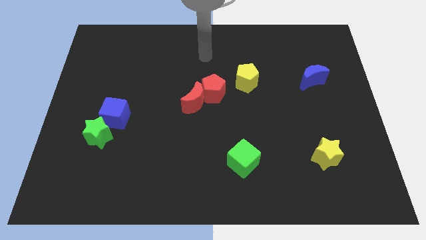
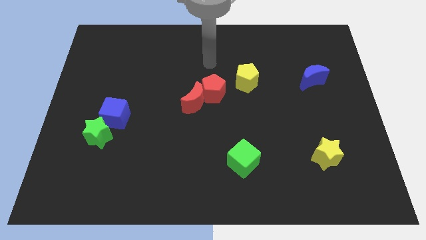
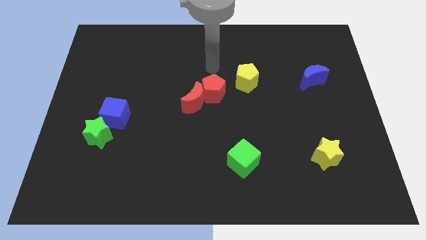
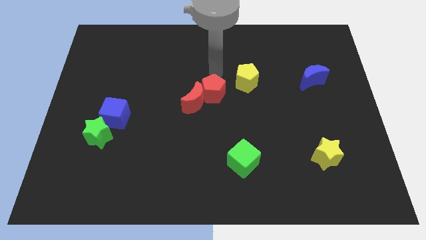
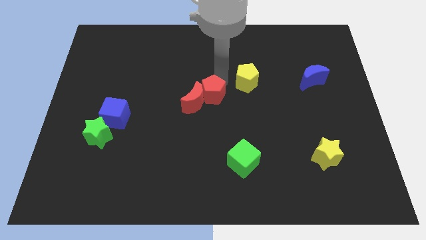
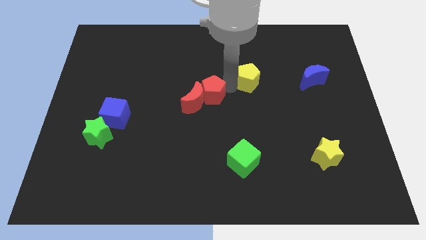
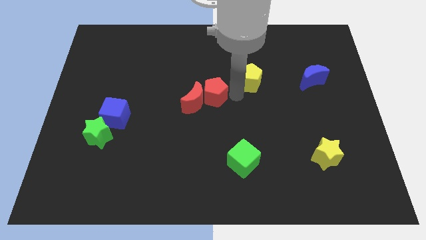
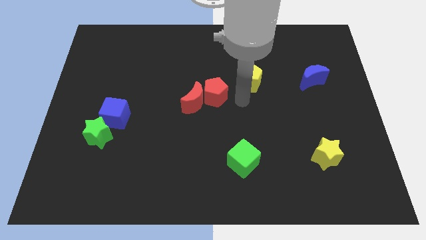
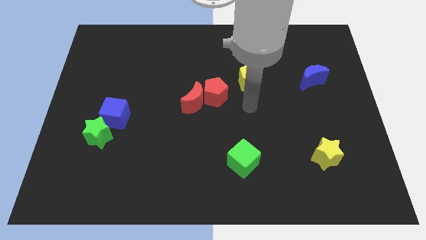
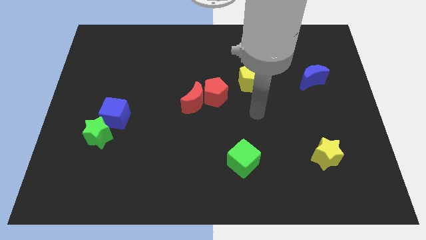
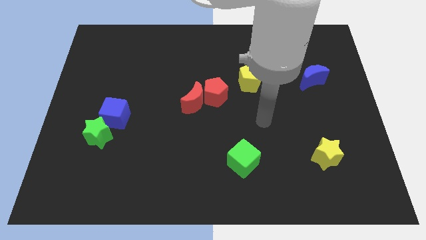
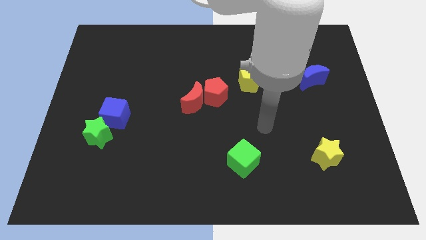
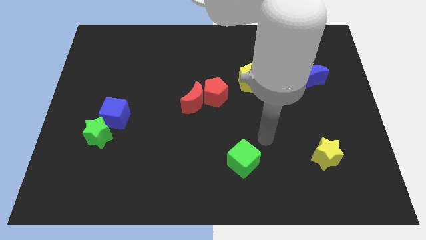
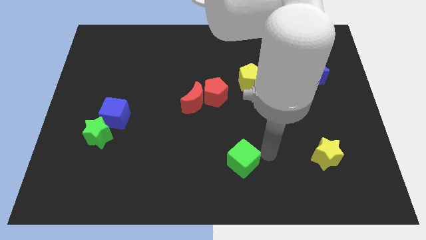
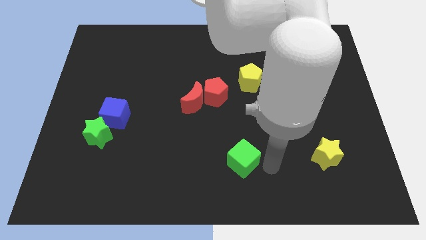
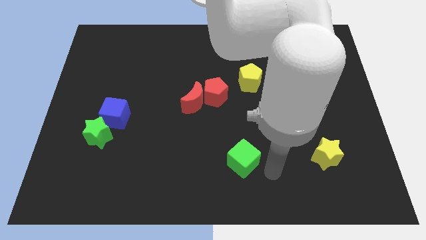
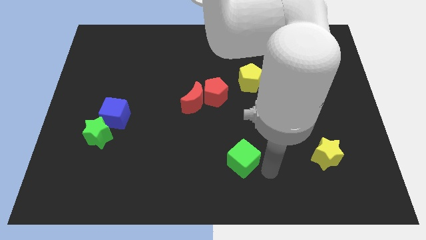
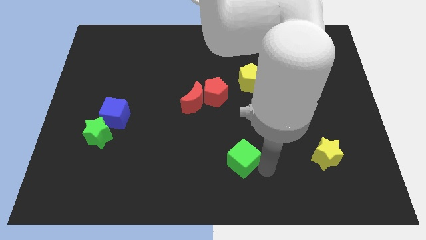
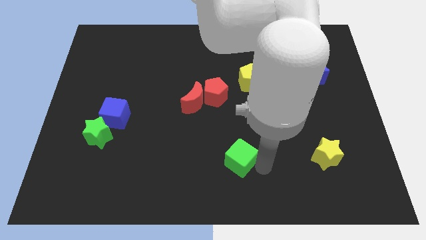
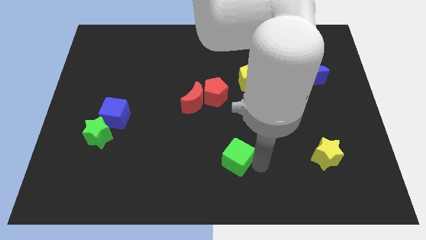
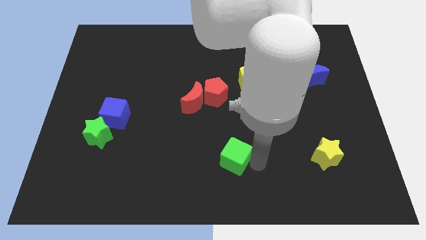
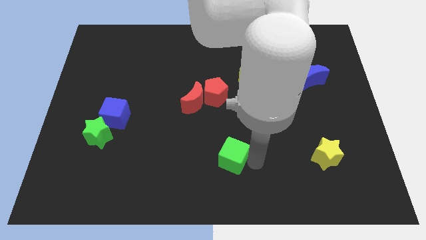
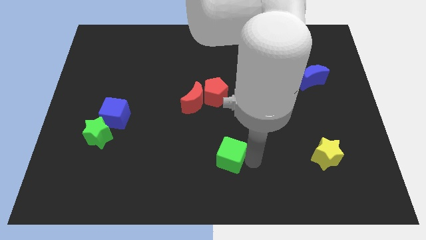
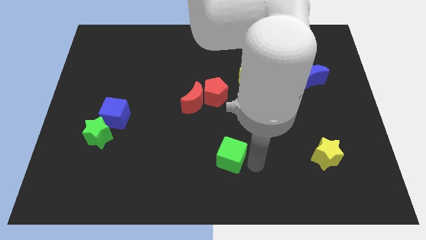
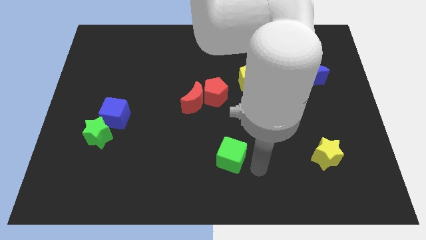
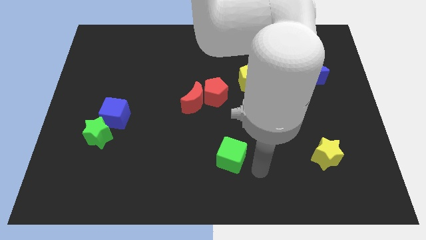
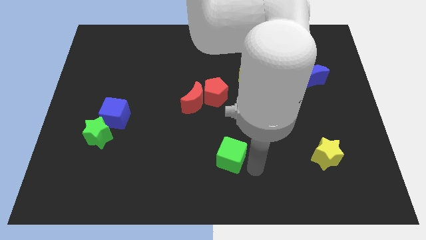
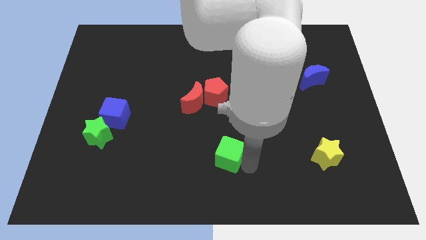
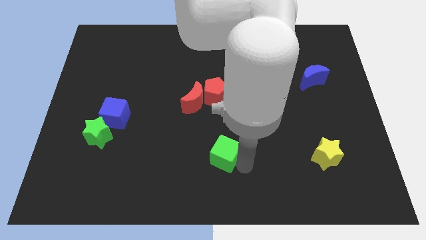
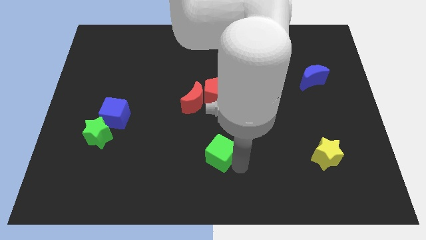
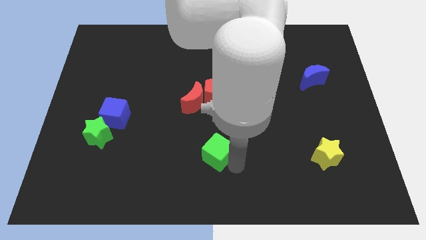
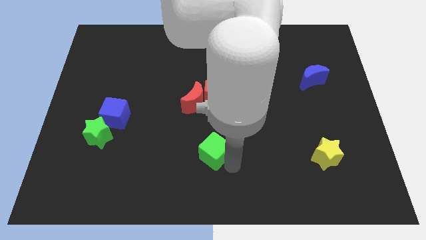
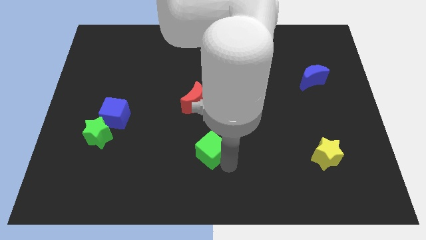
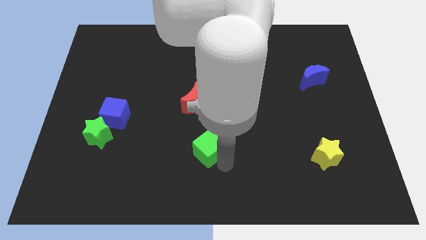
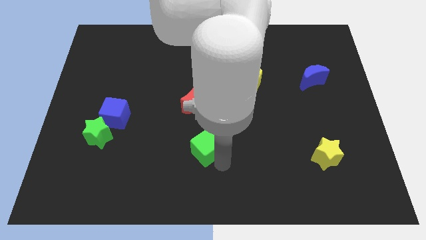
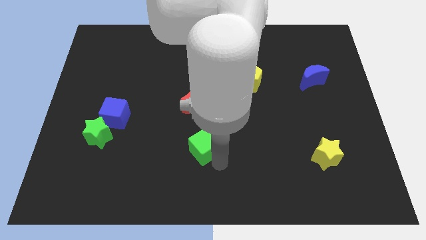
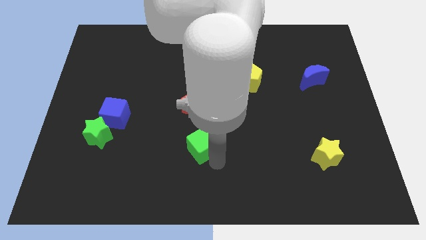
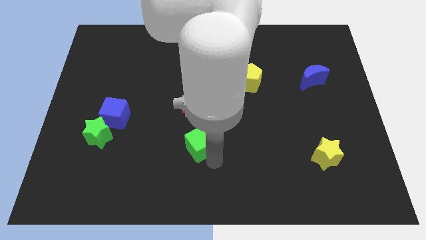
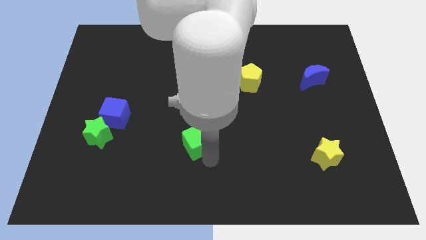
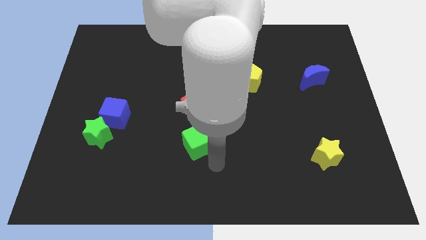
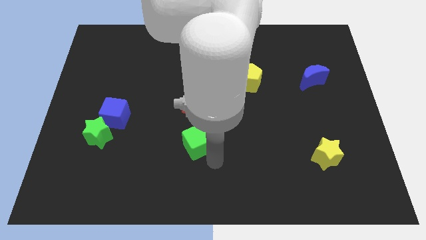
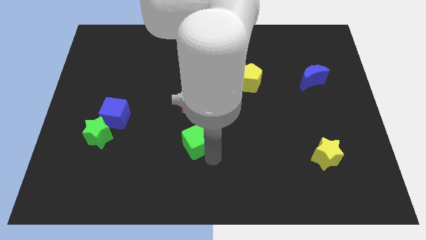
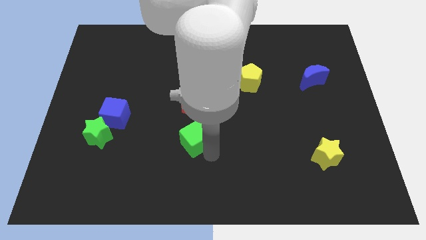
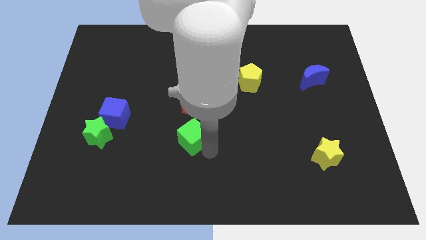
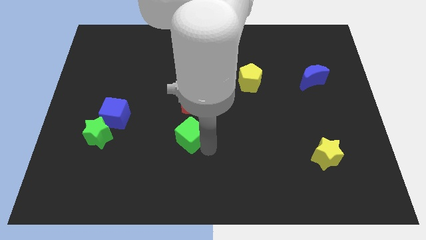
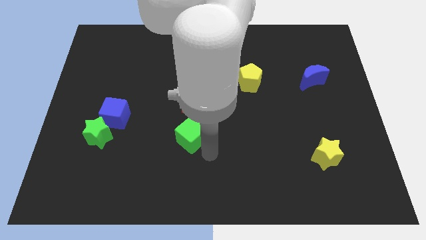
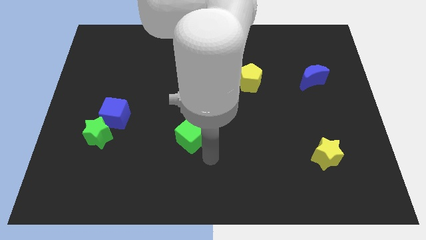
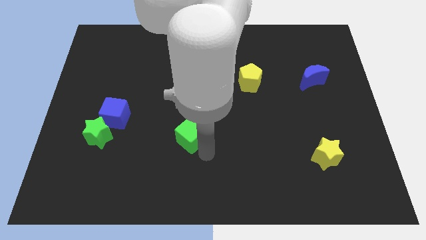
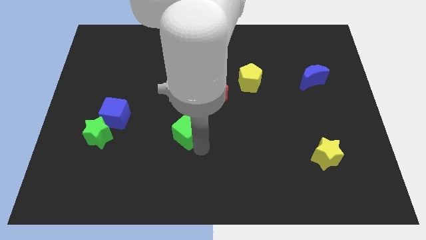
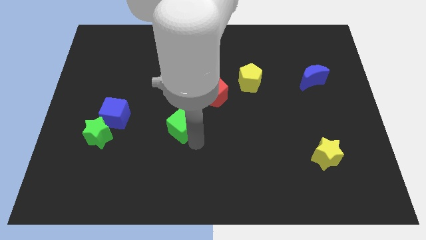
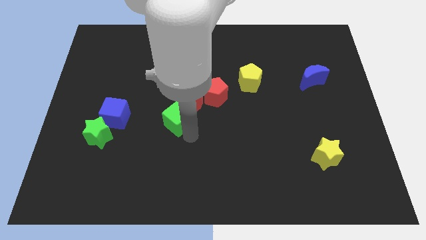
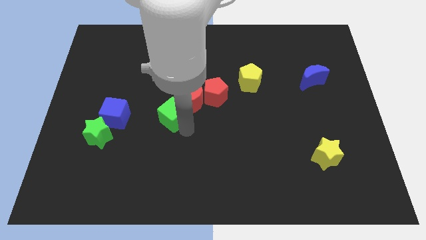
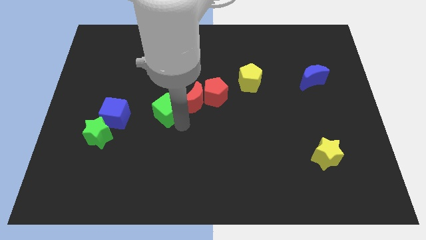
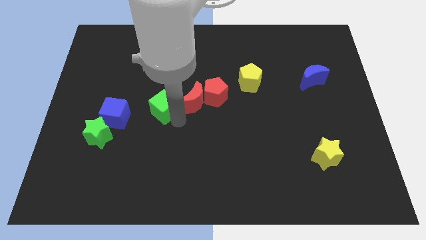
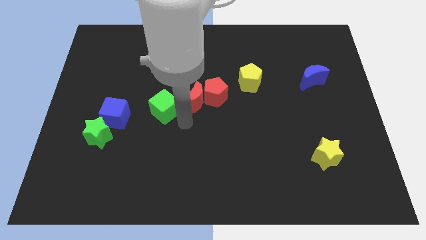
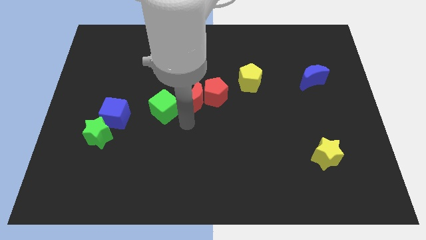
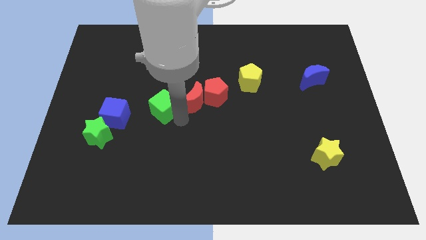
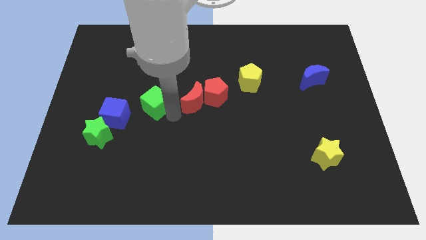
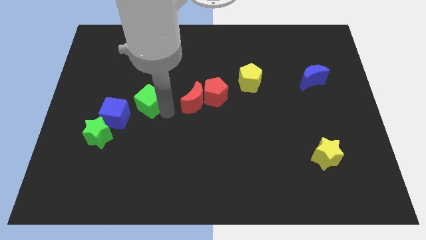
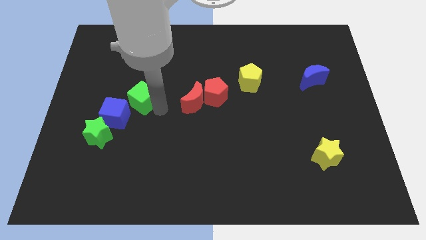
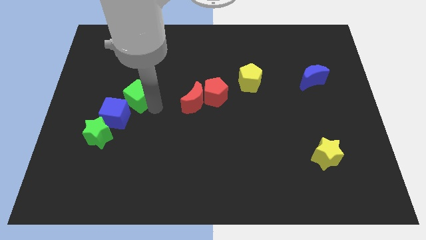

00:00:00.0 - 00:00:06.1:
push the green cube to the top side of the blue cube
